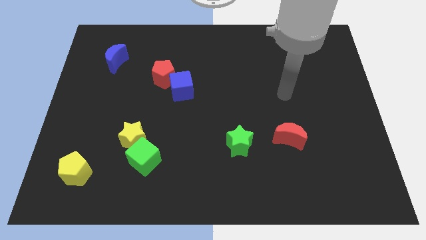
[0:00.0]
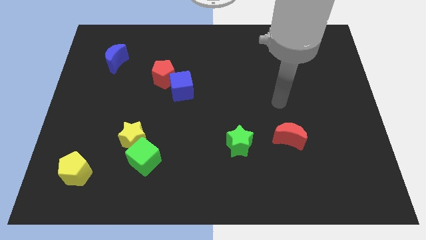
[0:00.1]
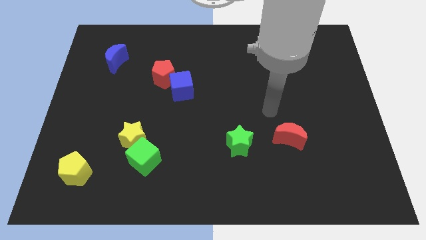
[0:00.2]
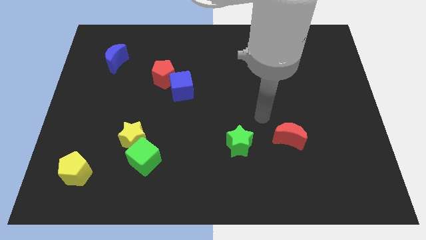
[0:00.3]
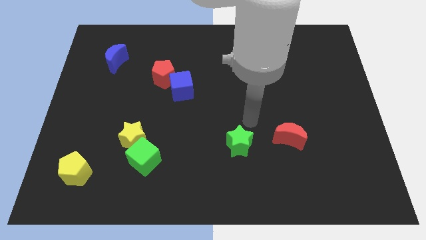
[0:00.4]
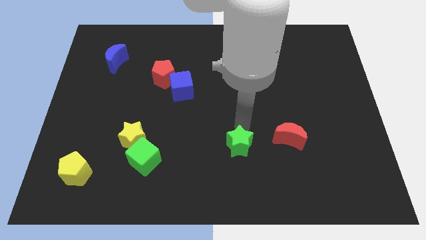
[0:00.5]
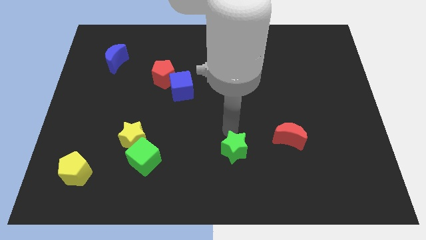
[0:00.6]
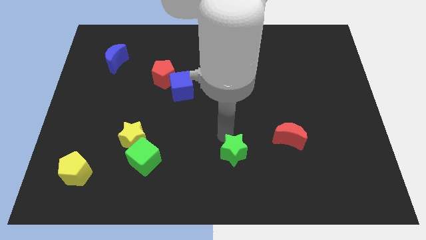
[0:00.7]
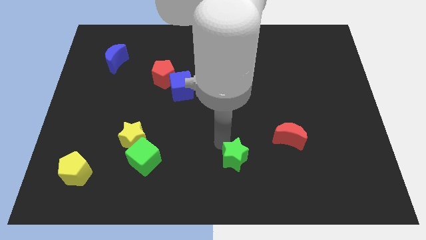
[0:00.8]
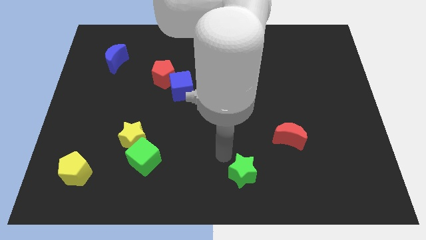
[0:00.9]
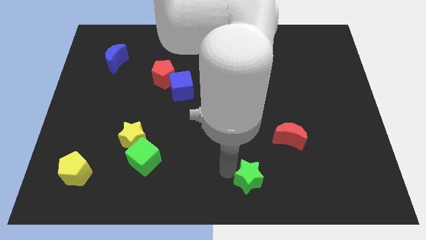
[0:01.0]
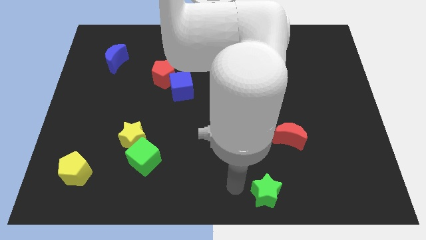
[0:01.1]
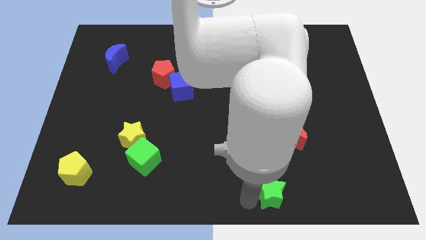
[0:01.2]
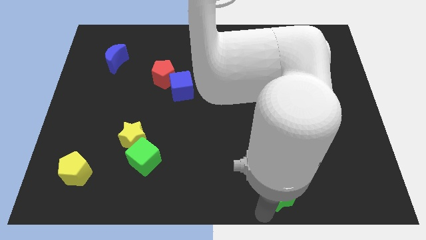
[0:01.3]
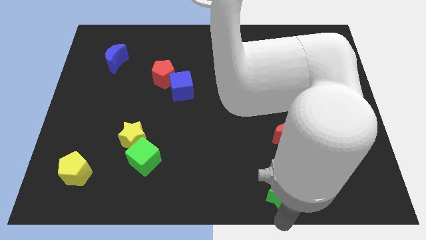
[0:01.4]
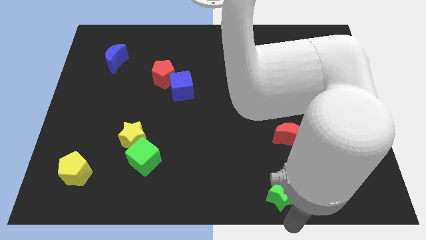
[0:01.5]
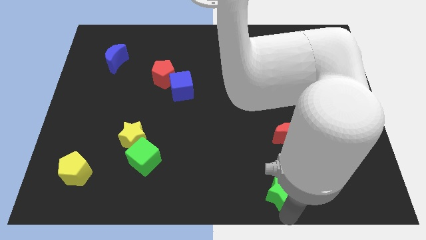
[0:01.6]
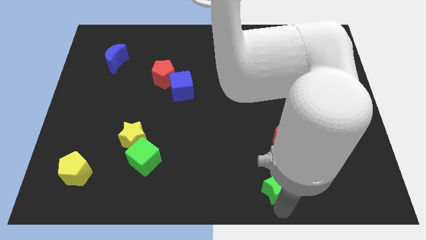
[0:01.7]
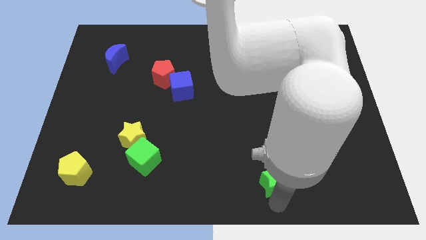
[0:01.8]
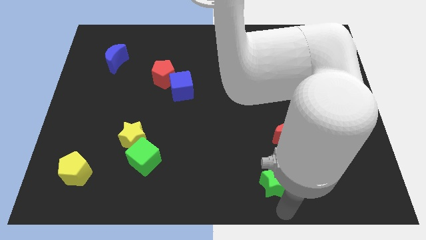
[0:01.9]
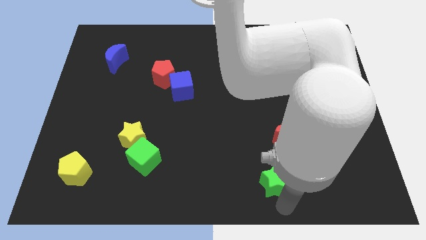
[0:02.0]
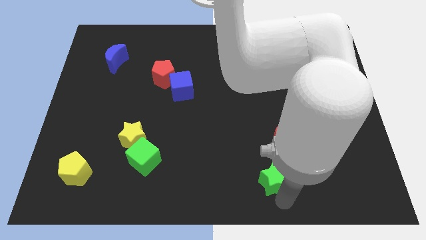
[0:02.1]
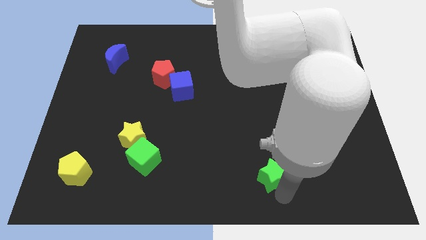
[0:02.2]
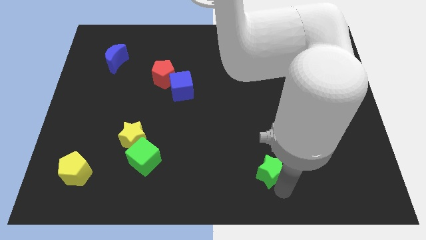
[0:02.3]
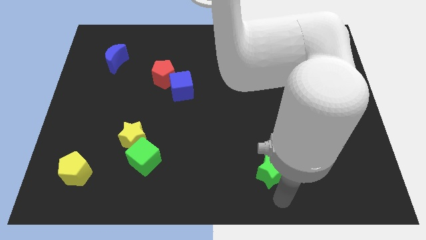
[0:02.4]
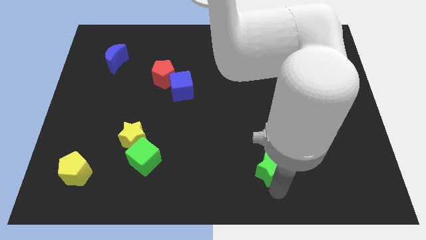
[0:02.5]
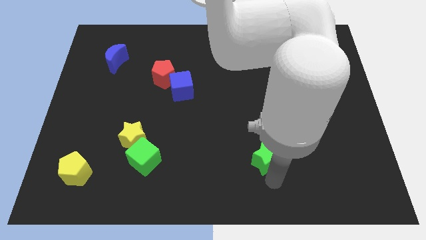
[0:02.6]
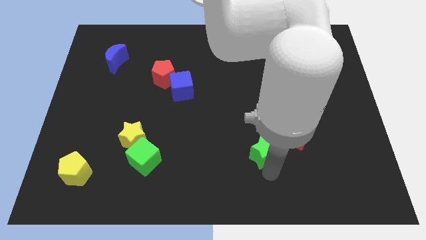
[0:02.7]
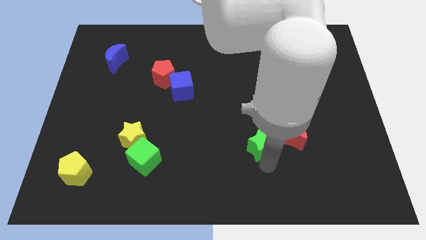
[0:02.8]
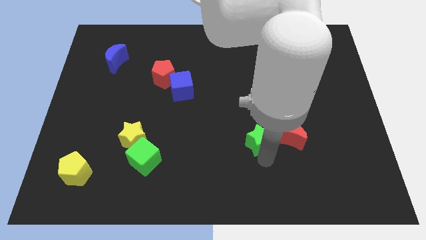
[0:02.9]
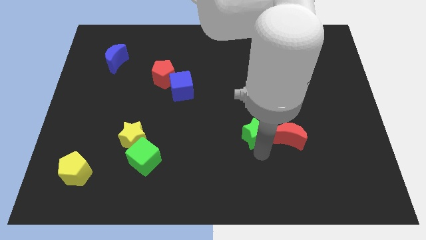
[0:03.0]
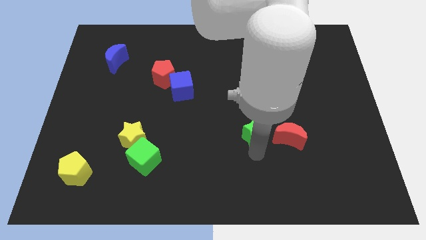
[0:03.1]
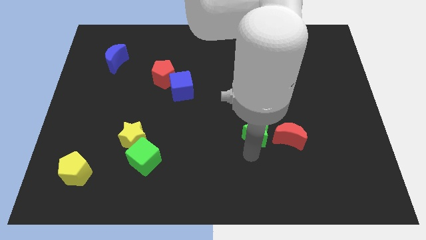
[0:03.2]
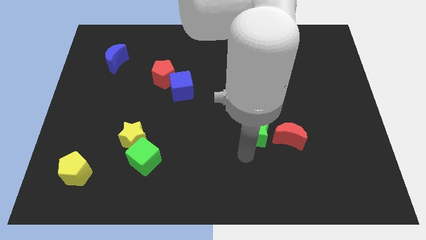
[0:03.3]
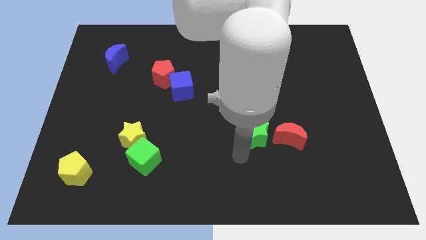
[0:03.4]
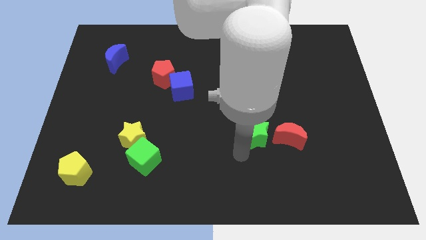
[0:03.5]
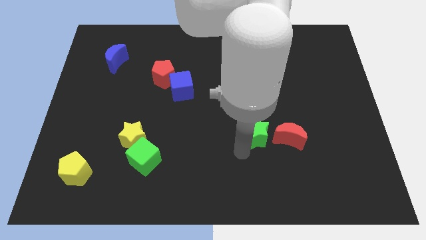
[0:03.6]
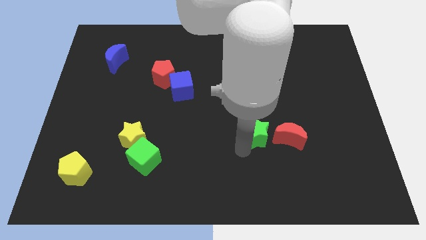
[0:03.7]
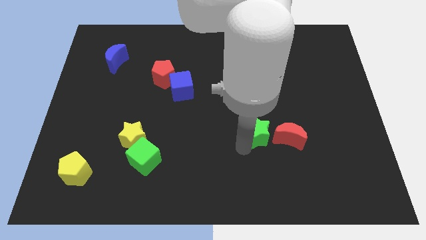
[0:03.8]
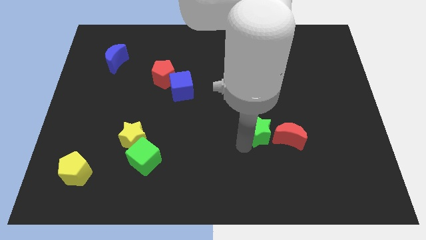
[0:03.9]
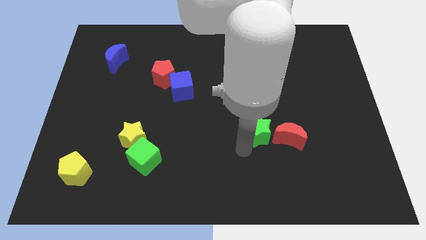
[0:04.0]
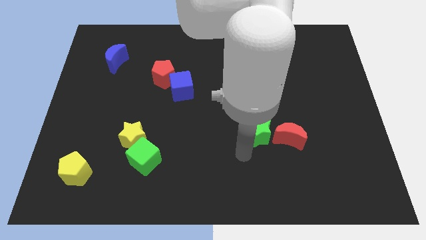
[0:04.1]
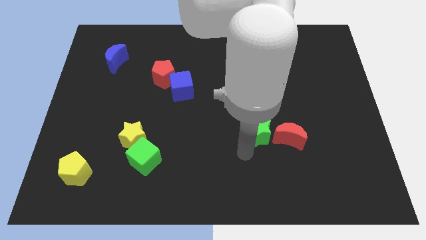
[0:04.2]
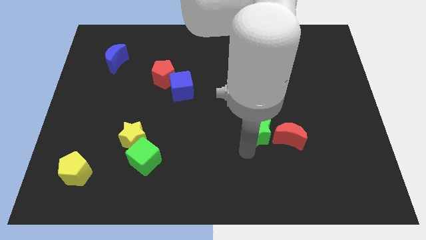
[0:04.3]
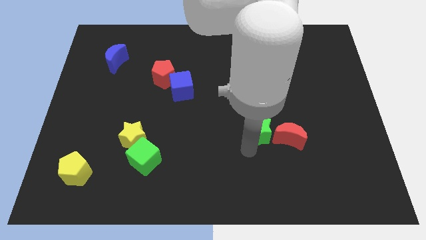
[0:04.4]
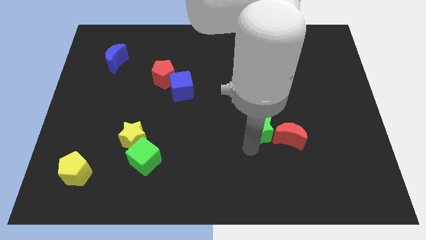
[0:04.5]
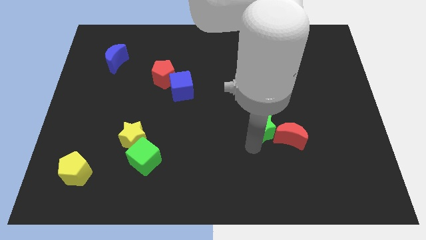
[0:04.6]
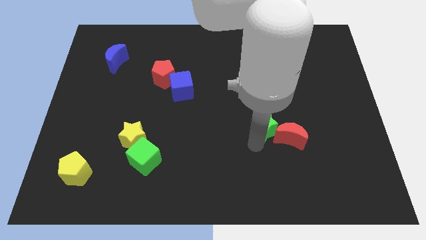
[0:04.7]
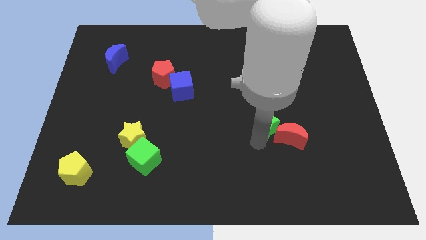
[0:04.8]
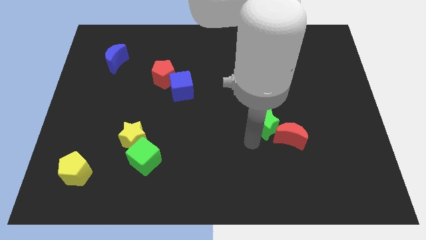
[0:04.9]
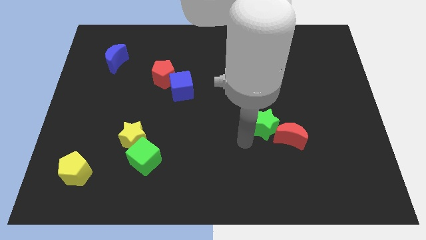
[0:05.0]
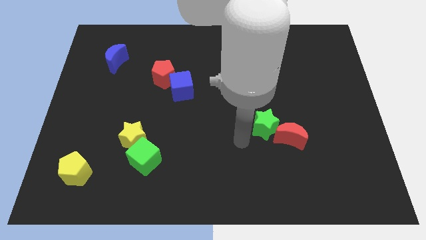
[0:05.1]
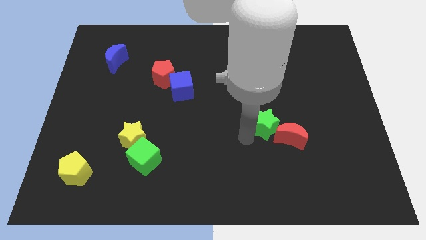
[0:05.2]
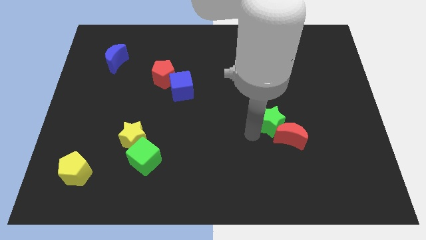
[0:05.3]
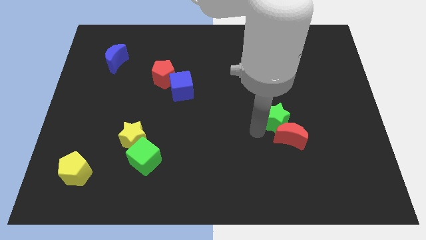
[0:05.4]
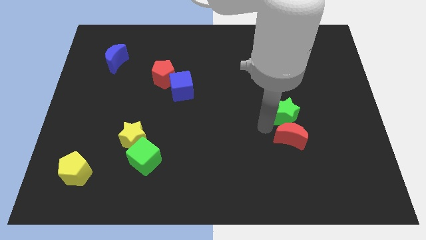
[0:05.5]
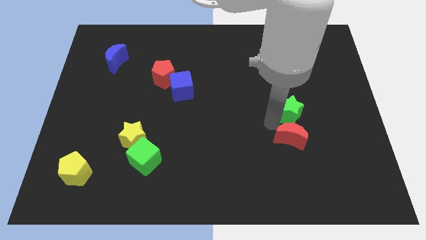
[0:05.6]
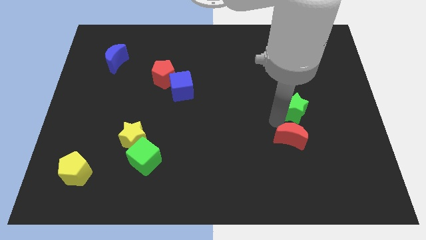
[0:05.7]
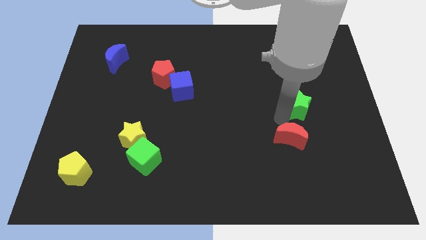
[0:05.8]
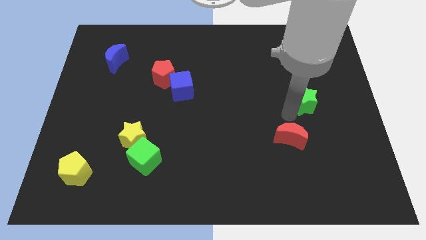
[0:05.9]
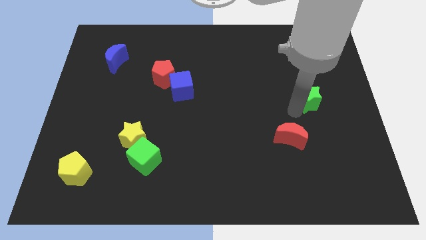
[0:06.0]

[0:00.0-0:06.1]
move the green star diagonally up and to the right

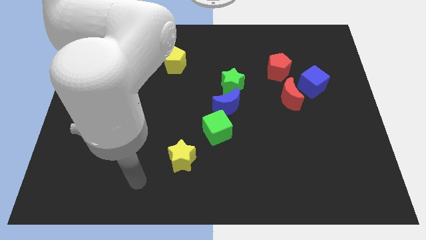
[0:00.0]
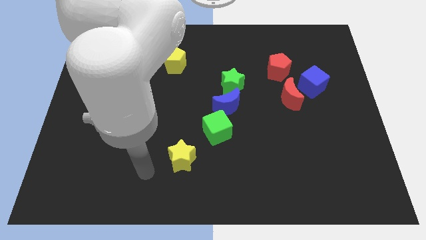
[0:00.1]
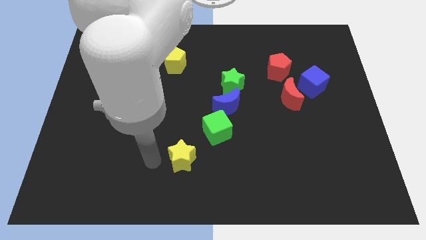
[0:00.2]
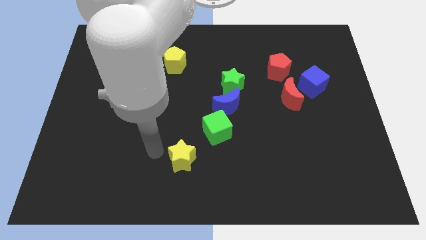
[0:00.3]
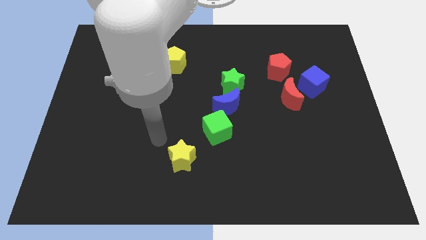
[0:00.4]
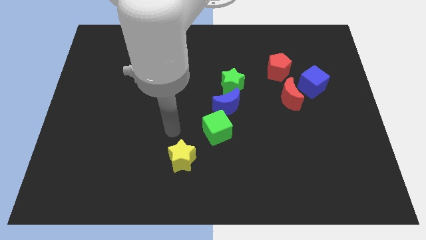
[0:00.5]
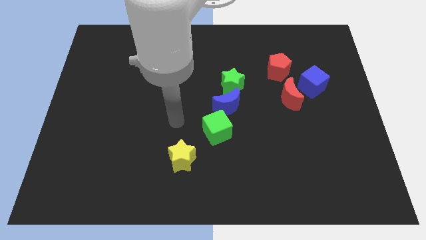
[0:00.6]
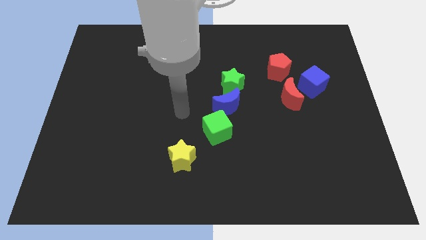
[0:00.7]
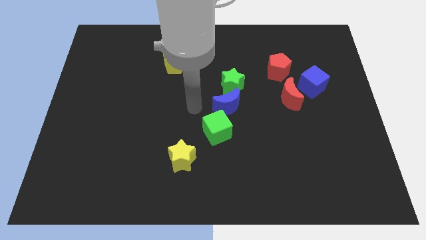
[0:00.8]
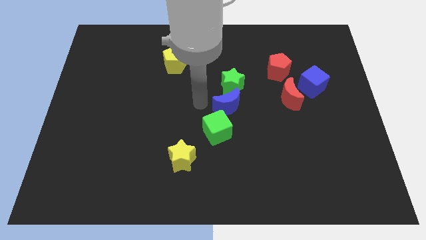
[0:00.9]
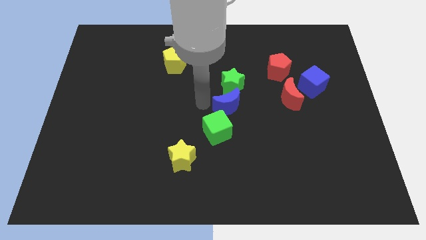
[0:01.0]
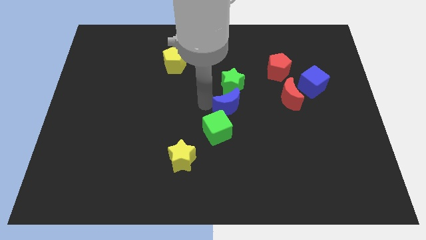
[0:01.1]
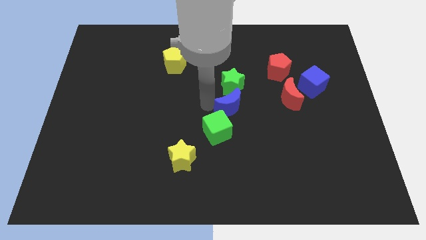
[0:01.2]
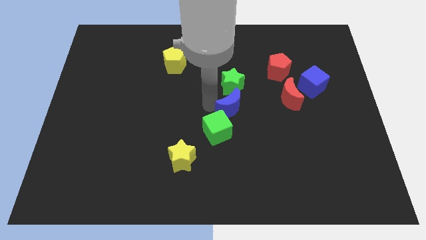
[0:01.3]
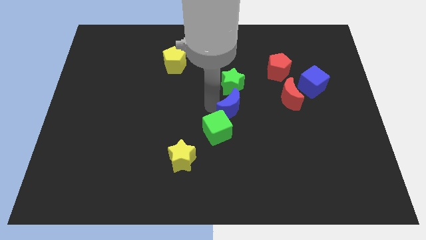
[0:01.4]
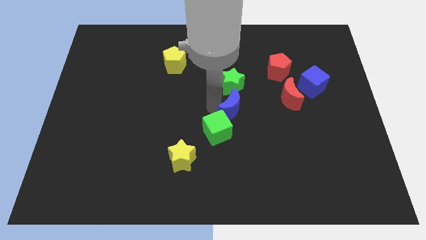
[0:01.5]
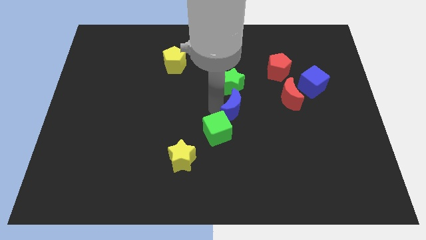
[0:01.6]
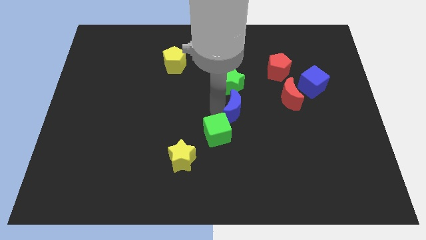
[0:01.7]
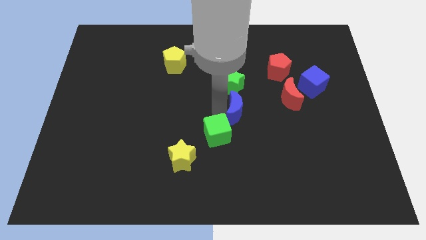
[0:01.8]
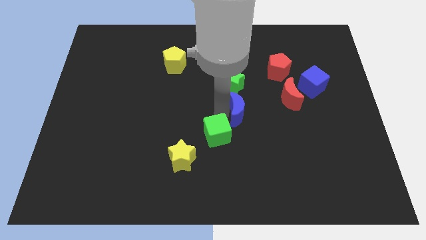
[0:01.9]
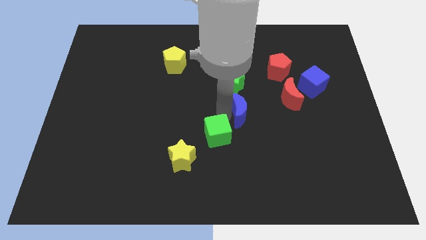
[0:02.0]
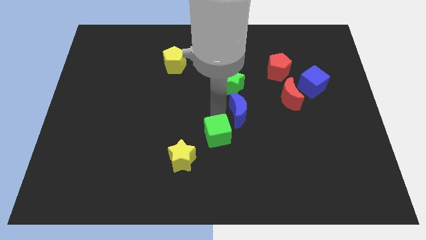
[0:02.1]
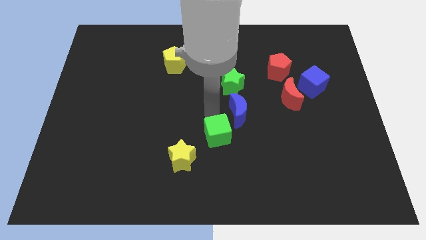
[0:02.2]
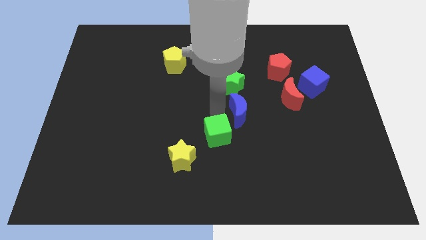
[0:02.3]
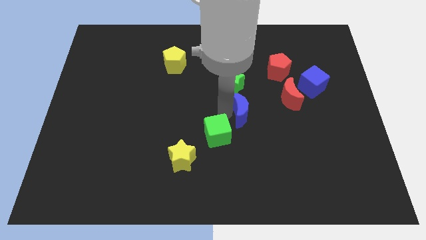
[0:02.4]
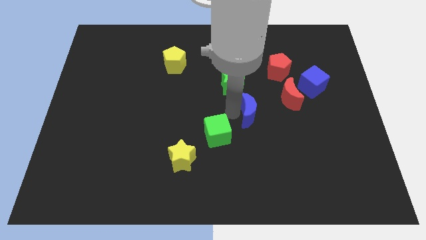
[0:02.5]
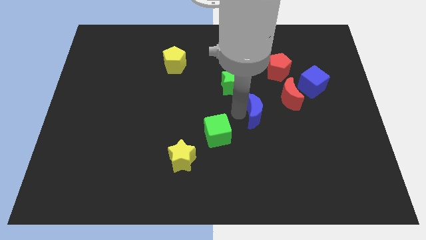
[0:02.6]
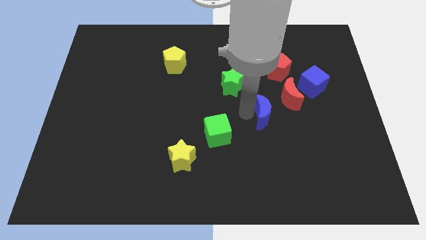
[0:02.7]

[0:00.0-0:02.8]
move the blue moon somewhat right
